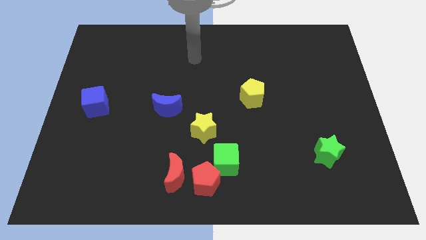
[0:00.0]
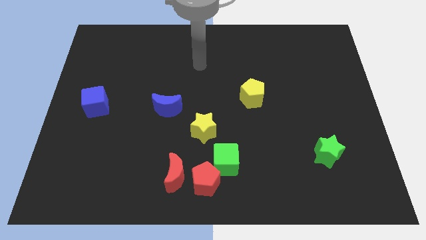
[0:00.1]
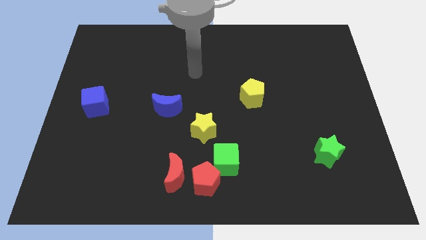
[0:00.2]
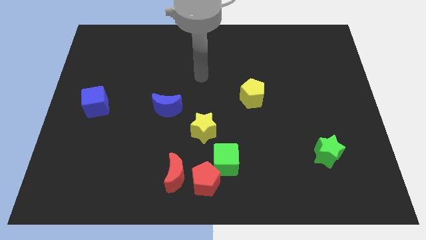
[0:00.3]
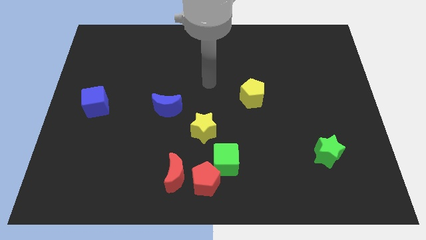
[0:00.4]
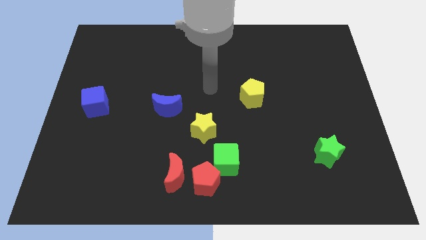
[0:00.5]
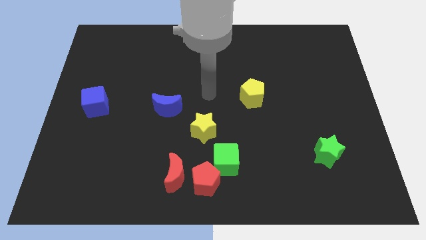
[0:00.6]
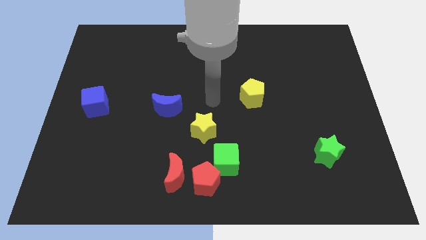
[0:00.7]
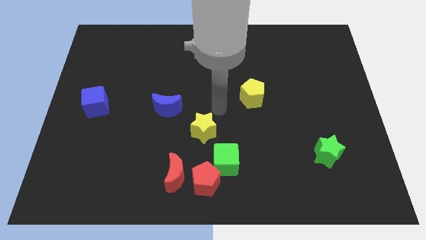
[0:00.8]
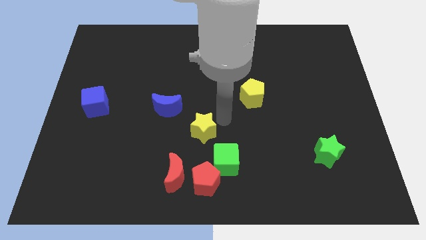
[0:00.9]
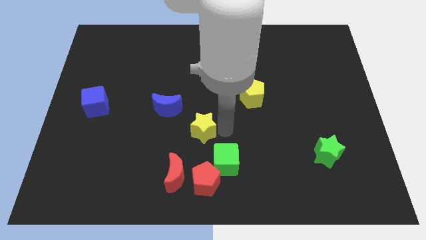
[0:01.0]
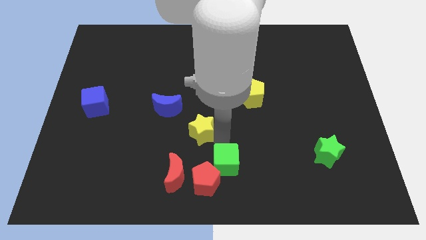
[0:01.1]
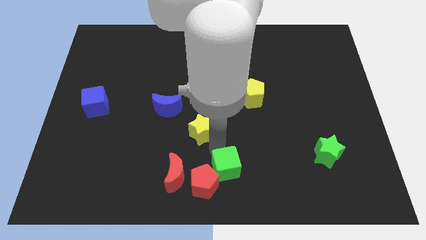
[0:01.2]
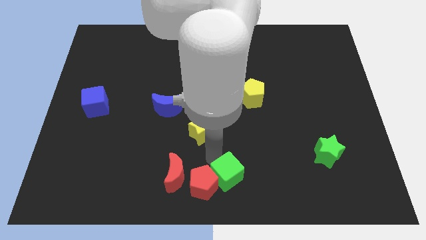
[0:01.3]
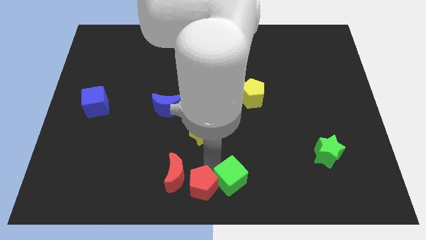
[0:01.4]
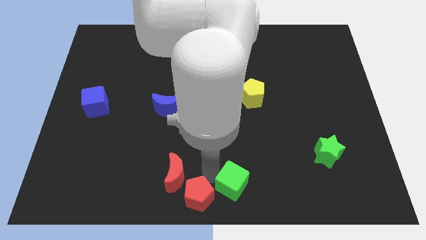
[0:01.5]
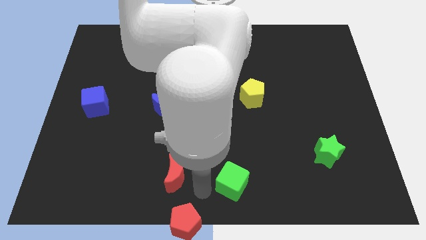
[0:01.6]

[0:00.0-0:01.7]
separate the red moon from the red pentagon

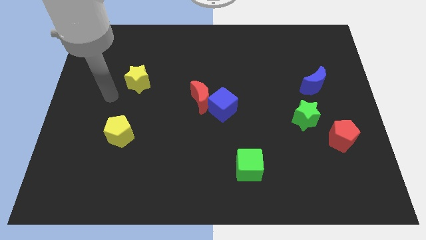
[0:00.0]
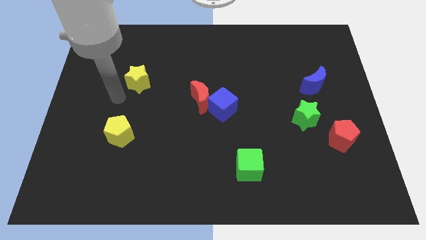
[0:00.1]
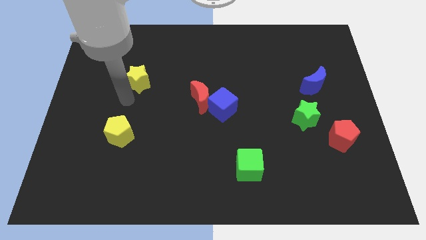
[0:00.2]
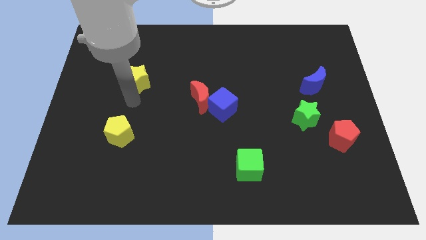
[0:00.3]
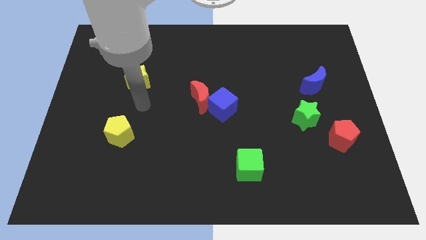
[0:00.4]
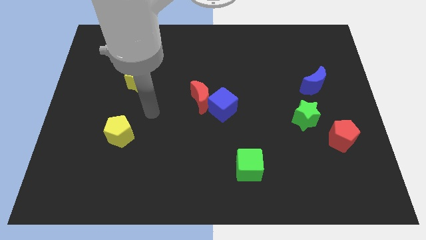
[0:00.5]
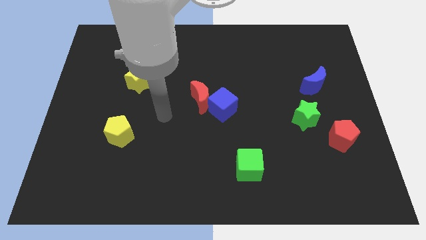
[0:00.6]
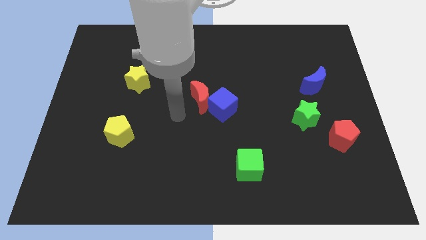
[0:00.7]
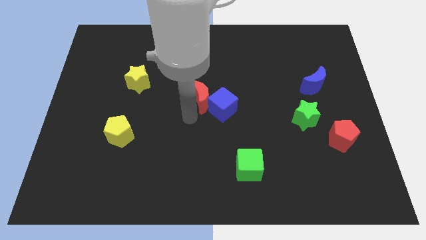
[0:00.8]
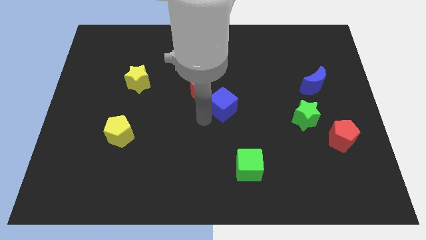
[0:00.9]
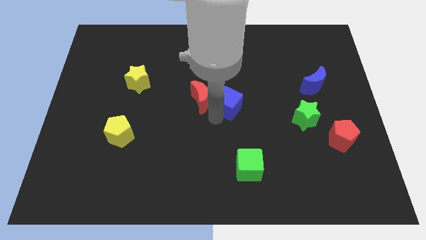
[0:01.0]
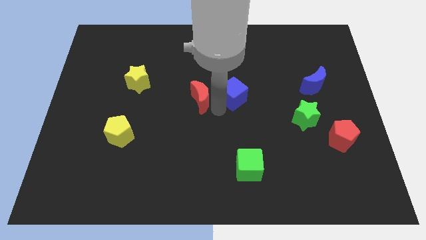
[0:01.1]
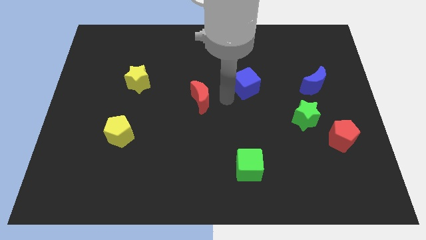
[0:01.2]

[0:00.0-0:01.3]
pull the red moon apart from the blue cube

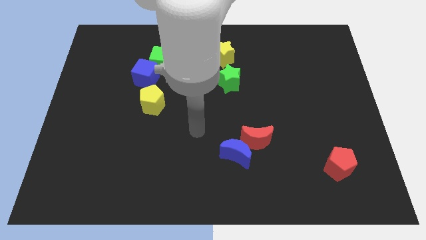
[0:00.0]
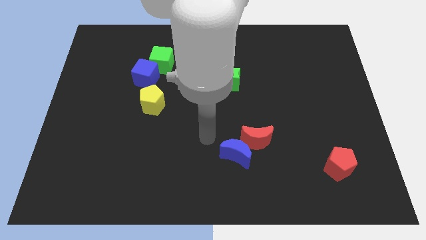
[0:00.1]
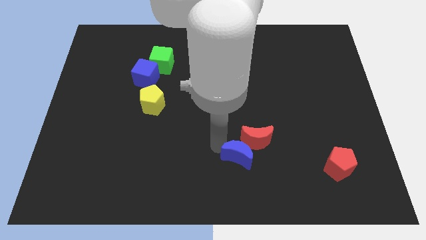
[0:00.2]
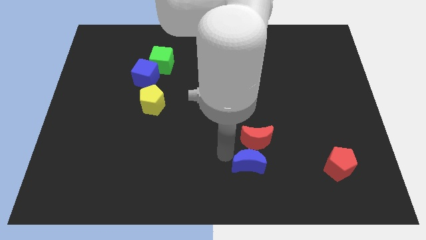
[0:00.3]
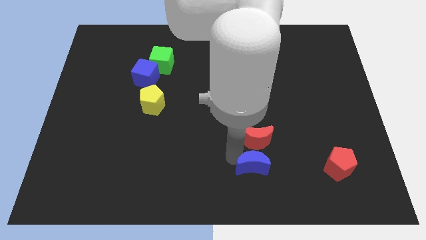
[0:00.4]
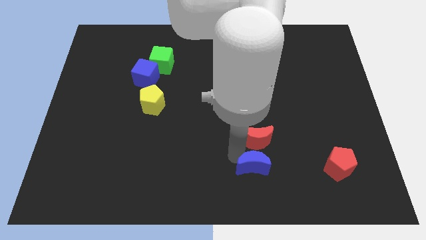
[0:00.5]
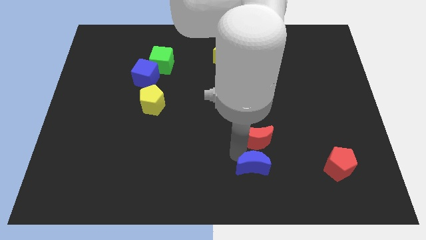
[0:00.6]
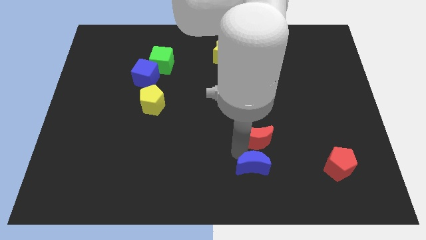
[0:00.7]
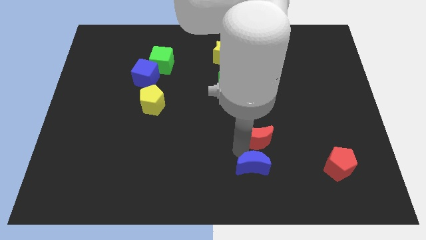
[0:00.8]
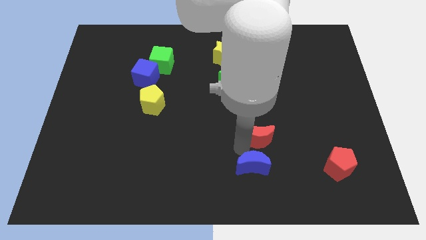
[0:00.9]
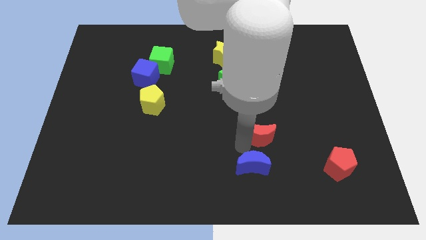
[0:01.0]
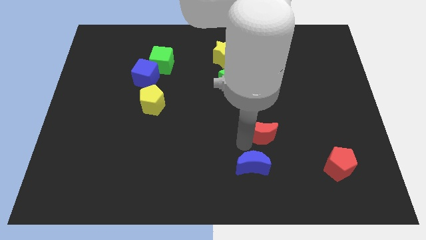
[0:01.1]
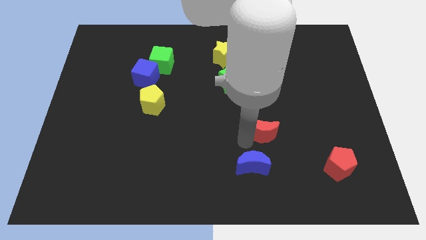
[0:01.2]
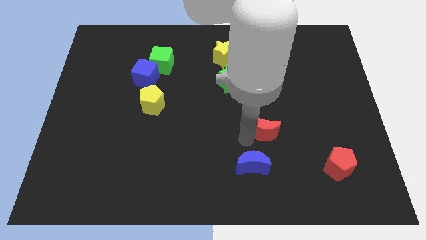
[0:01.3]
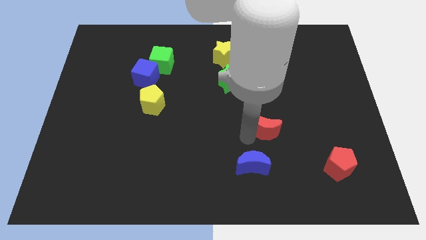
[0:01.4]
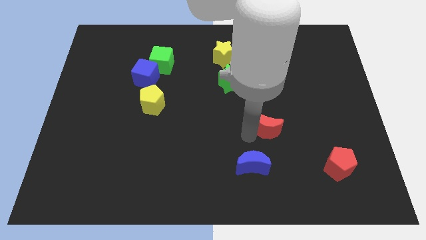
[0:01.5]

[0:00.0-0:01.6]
pull the red moon apart from the blue moon

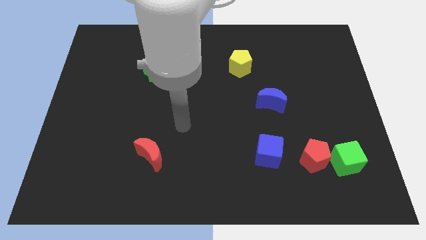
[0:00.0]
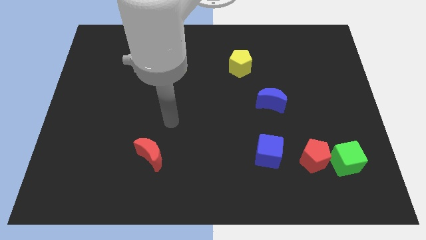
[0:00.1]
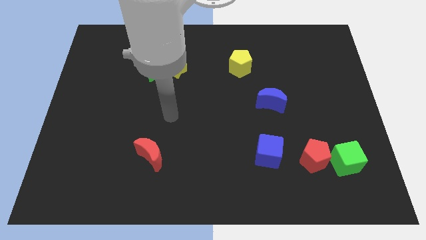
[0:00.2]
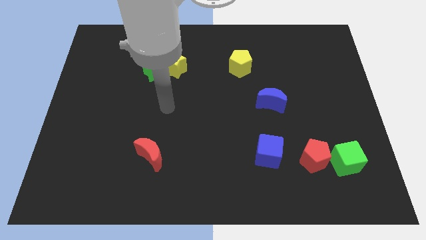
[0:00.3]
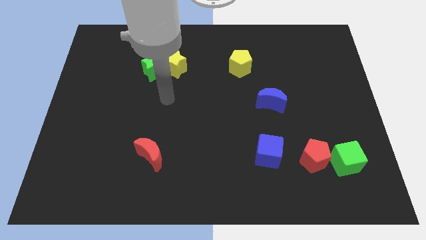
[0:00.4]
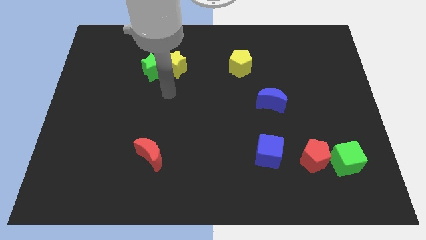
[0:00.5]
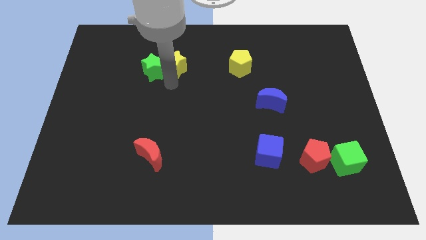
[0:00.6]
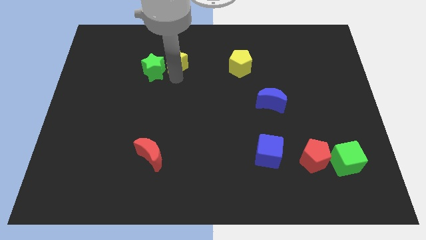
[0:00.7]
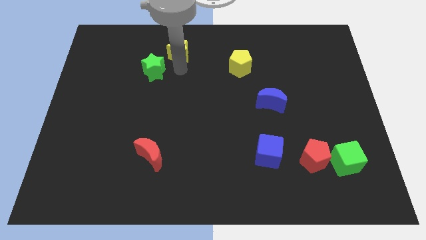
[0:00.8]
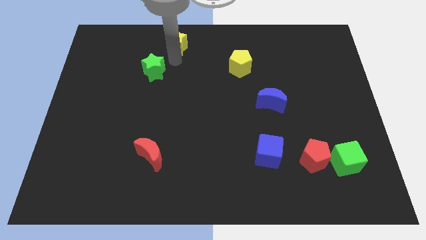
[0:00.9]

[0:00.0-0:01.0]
move the green star away from the yellow star

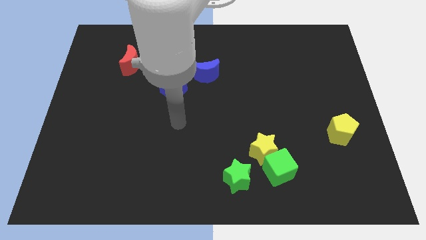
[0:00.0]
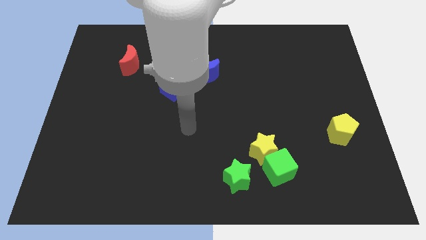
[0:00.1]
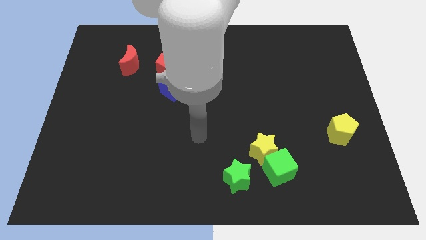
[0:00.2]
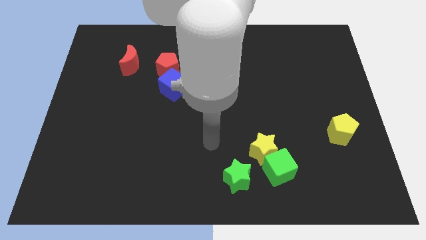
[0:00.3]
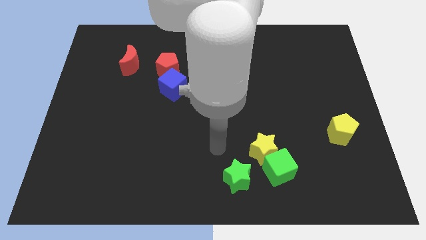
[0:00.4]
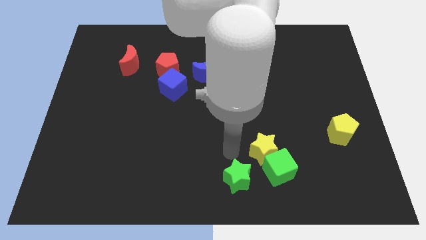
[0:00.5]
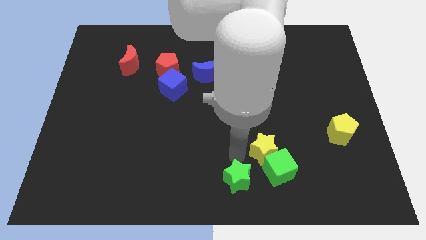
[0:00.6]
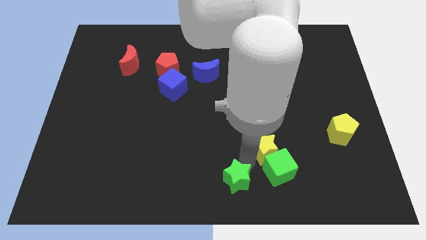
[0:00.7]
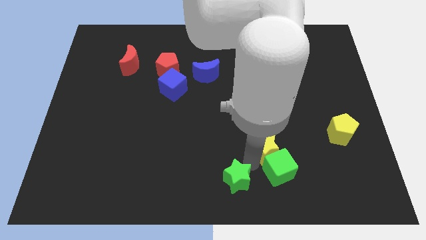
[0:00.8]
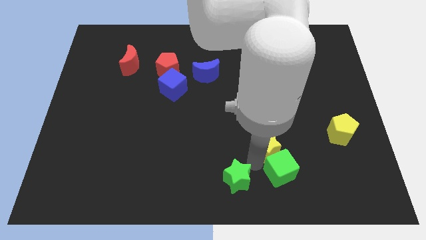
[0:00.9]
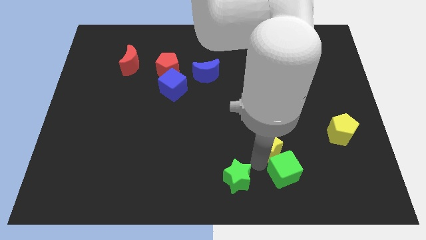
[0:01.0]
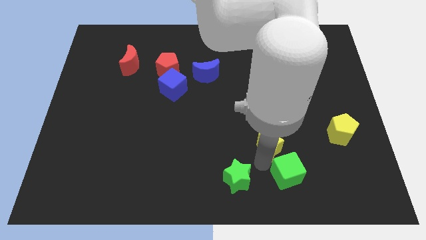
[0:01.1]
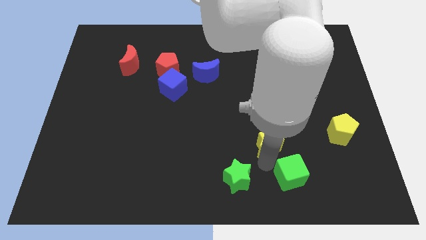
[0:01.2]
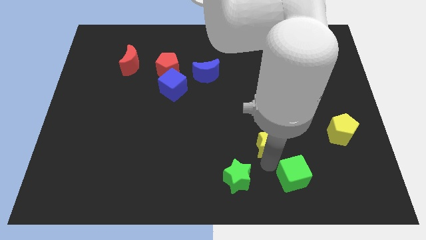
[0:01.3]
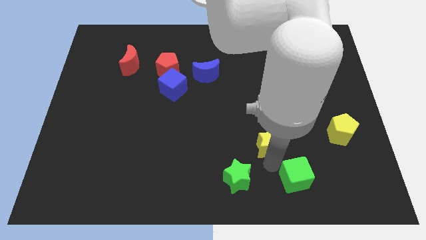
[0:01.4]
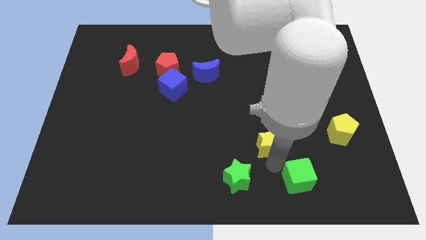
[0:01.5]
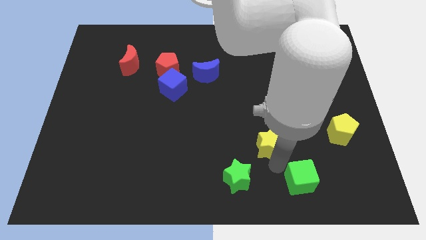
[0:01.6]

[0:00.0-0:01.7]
separate the green cube from the yellow star and green star

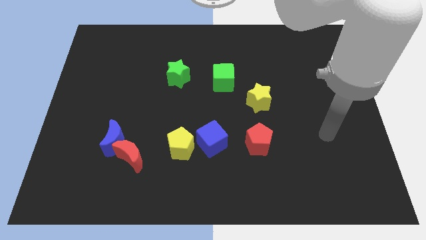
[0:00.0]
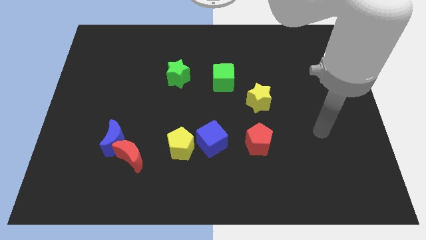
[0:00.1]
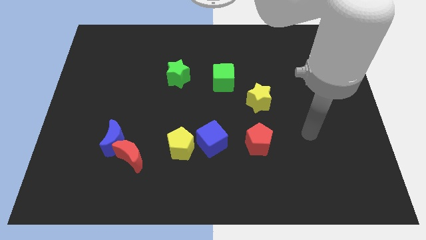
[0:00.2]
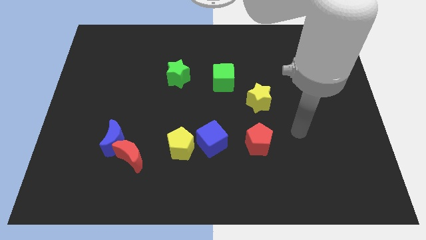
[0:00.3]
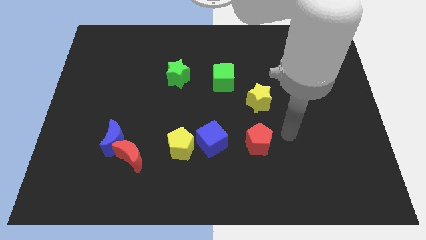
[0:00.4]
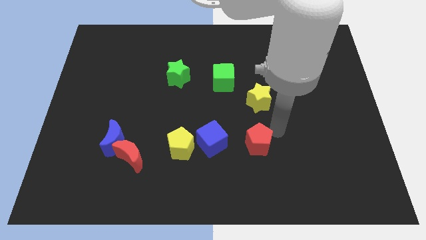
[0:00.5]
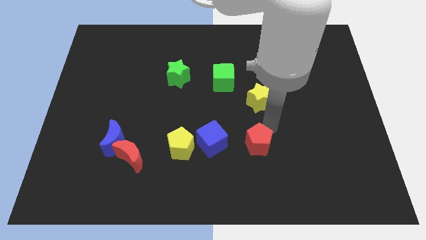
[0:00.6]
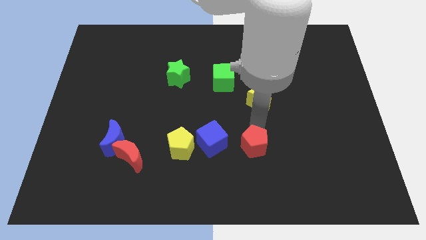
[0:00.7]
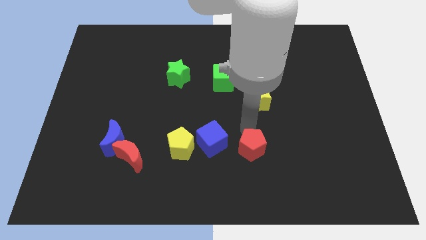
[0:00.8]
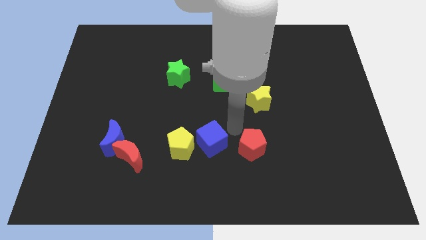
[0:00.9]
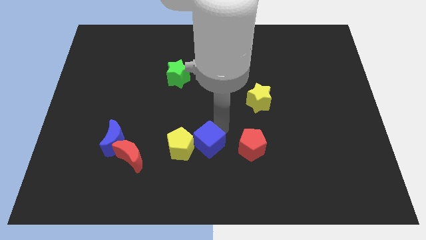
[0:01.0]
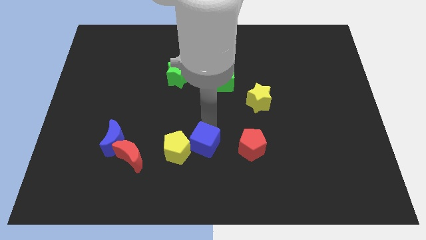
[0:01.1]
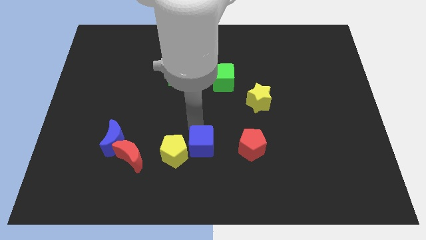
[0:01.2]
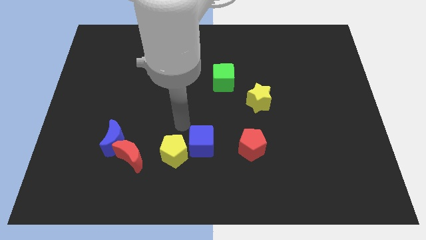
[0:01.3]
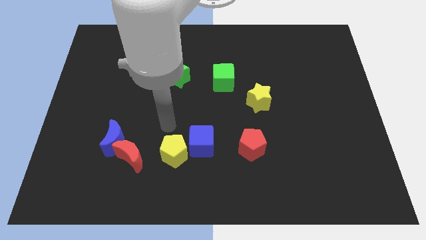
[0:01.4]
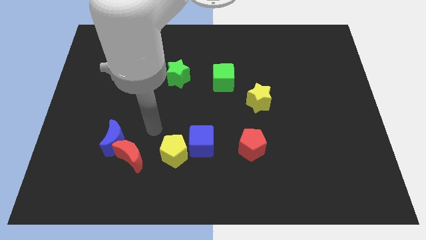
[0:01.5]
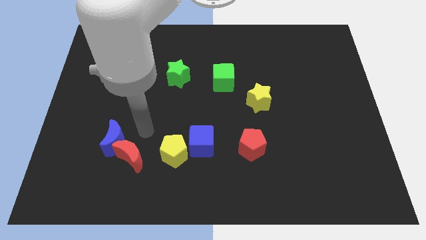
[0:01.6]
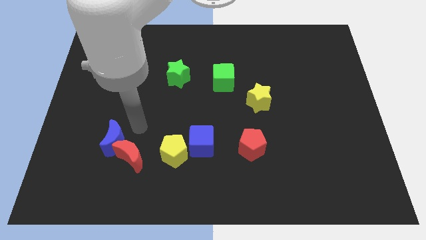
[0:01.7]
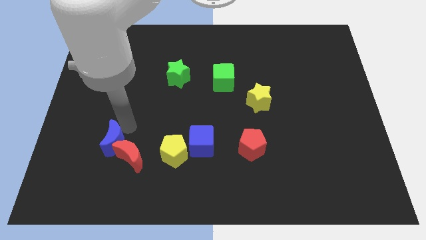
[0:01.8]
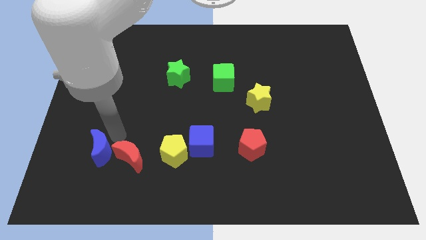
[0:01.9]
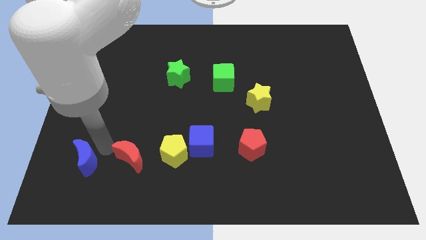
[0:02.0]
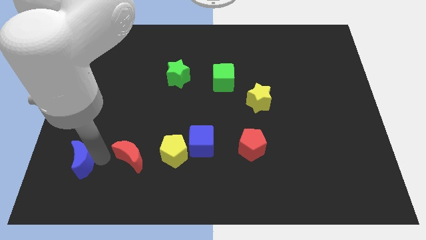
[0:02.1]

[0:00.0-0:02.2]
move the red moon away from the blue moon

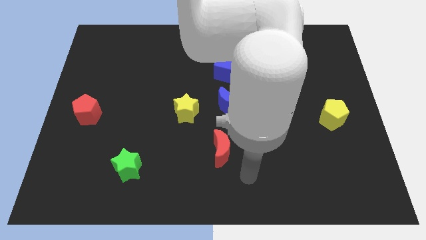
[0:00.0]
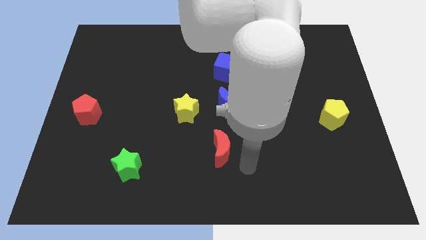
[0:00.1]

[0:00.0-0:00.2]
separate the blue moon from the yellow star
